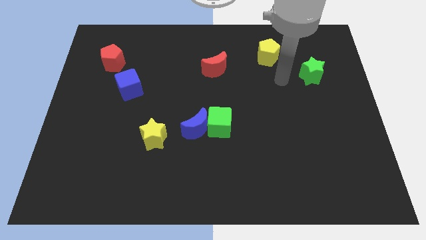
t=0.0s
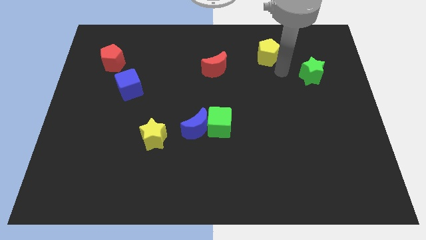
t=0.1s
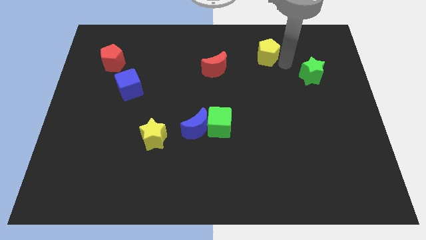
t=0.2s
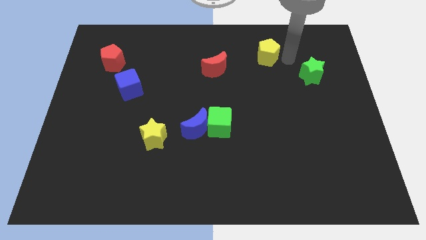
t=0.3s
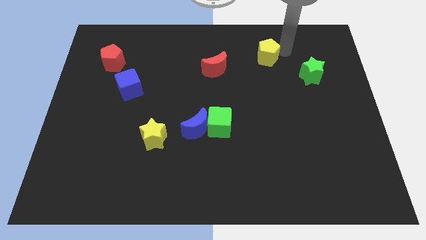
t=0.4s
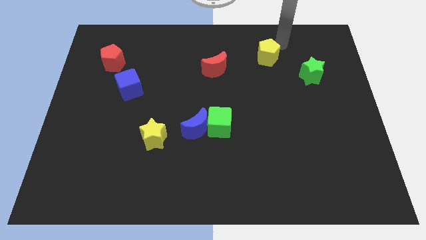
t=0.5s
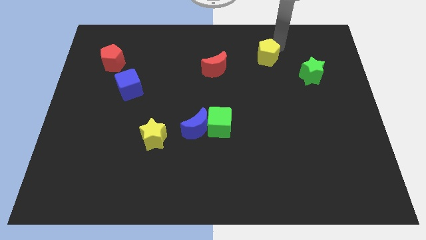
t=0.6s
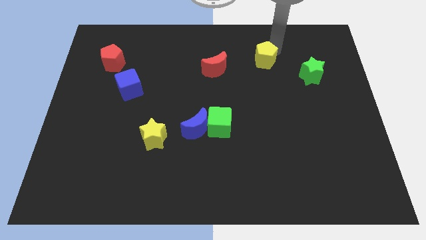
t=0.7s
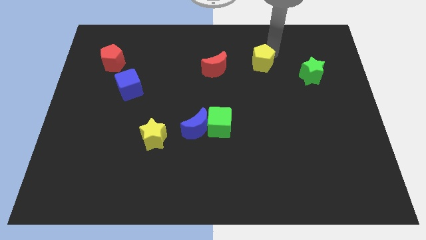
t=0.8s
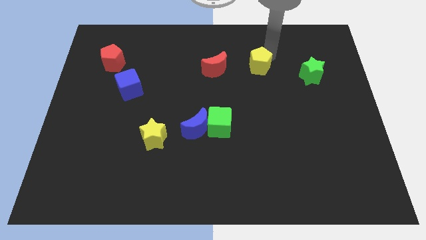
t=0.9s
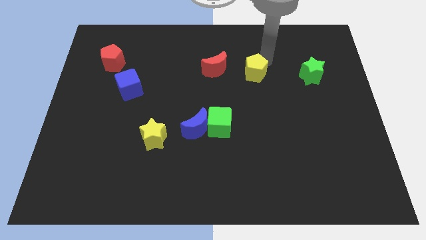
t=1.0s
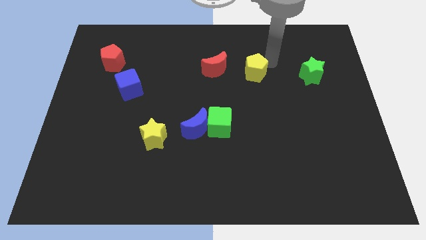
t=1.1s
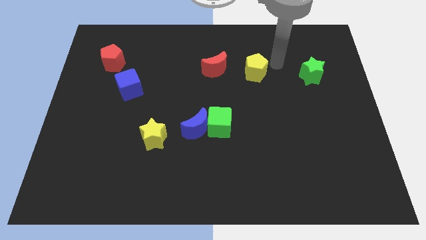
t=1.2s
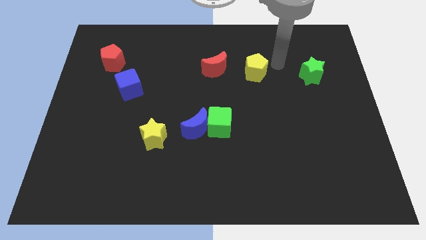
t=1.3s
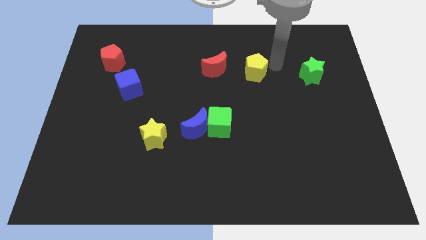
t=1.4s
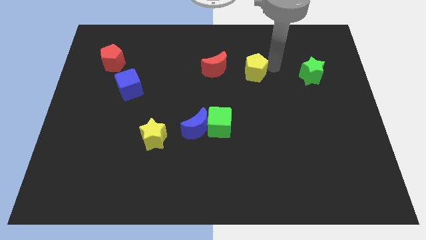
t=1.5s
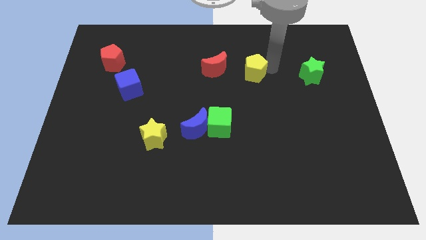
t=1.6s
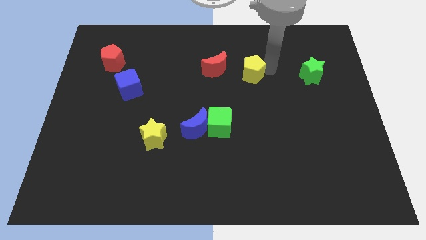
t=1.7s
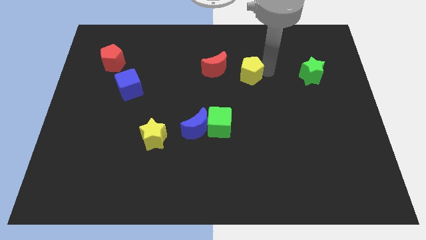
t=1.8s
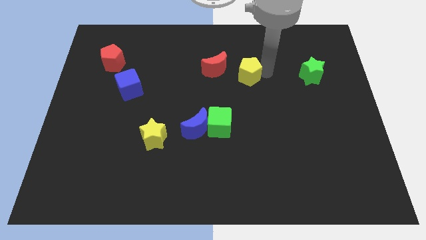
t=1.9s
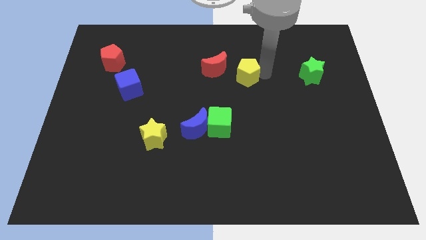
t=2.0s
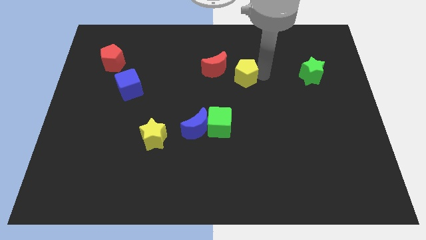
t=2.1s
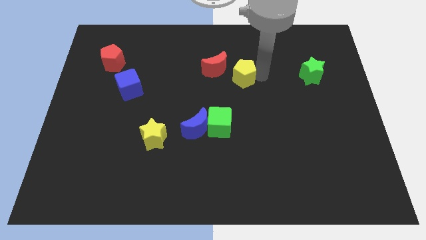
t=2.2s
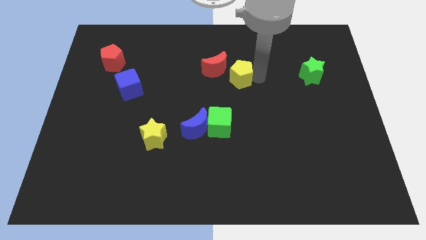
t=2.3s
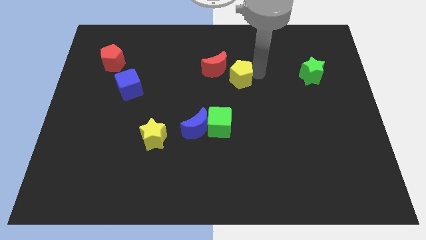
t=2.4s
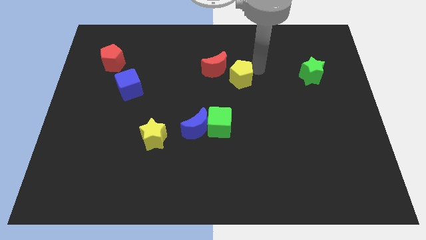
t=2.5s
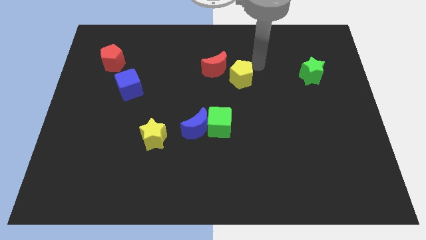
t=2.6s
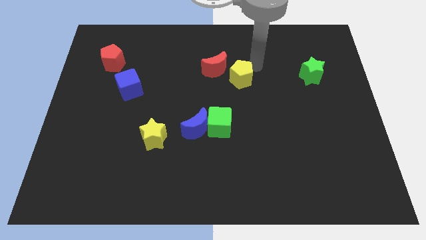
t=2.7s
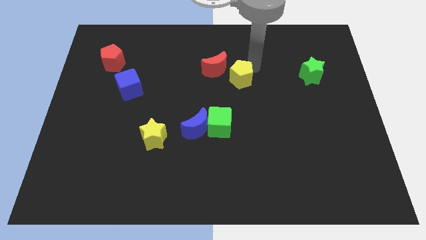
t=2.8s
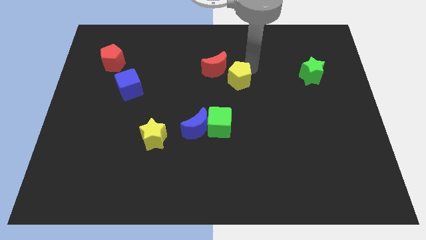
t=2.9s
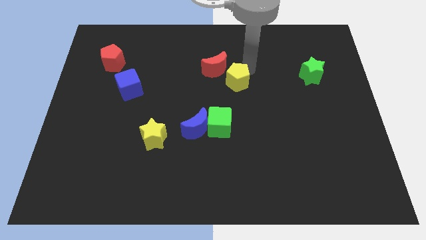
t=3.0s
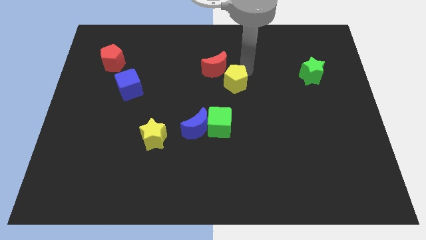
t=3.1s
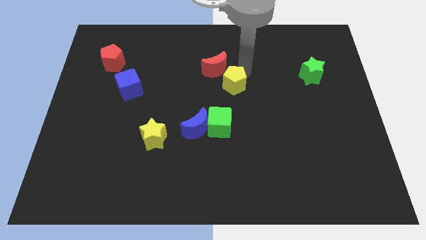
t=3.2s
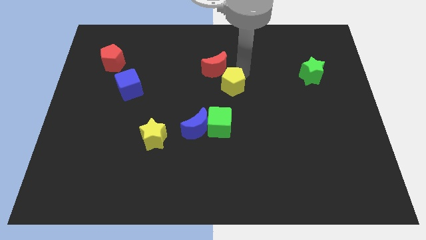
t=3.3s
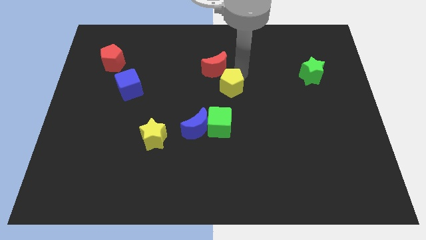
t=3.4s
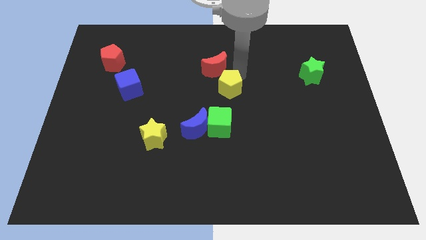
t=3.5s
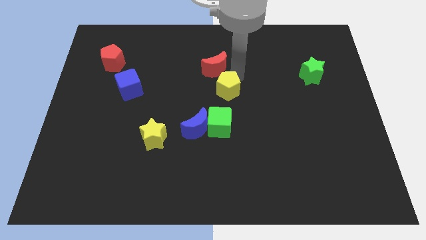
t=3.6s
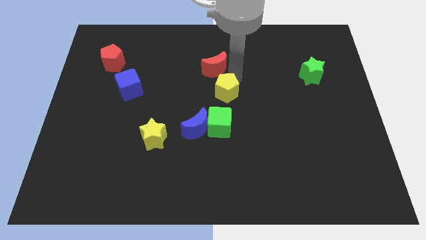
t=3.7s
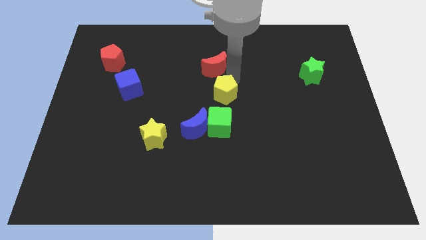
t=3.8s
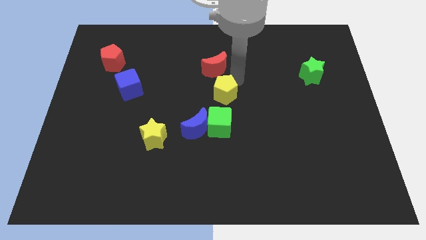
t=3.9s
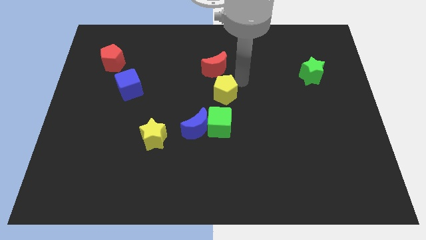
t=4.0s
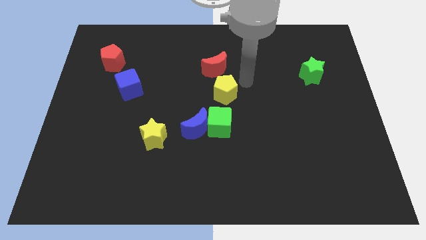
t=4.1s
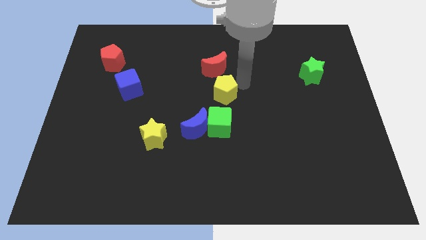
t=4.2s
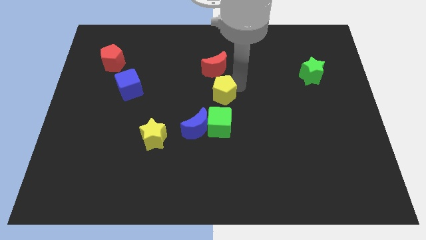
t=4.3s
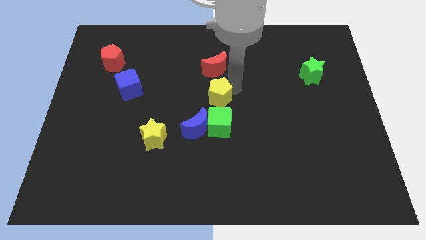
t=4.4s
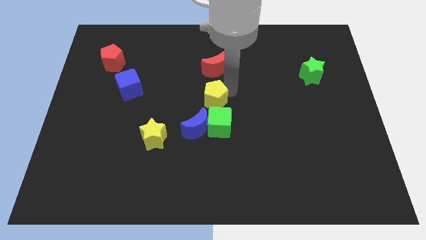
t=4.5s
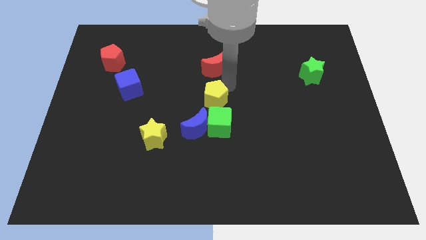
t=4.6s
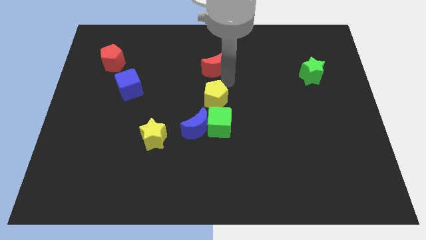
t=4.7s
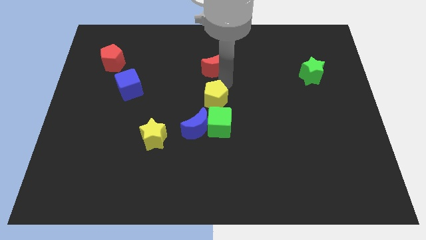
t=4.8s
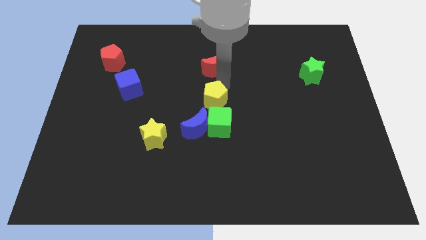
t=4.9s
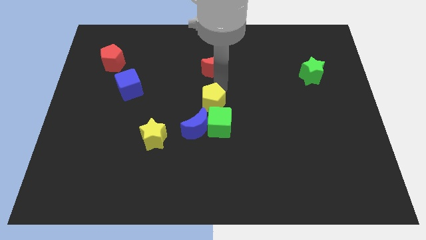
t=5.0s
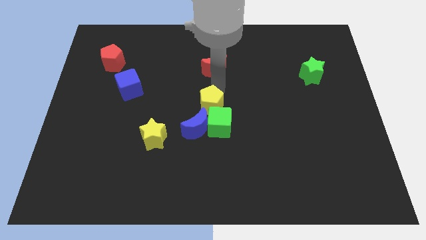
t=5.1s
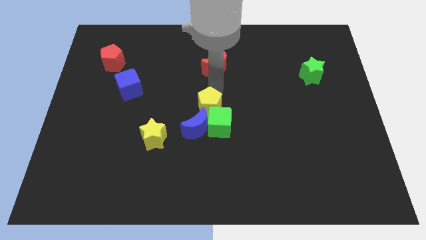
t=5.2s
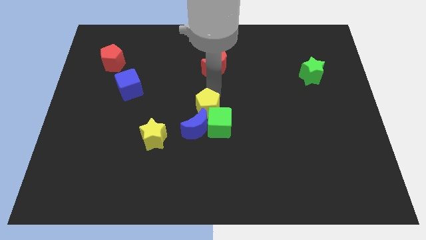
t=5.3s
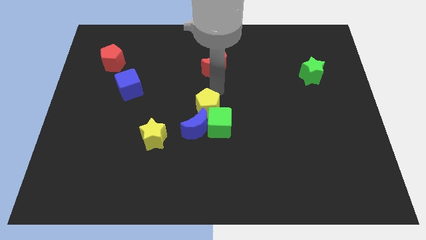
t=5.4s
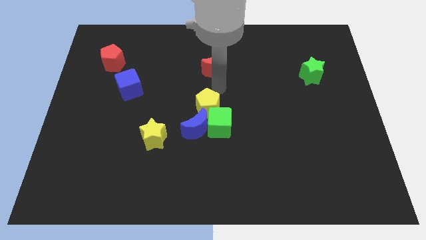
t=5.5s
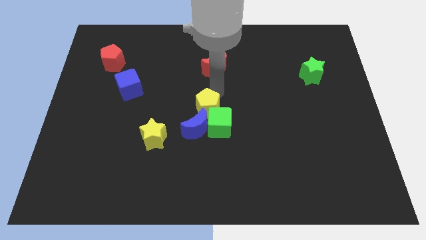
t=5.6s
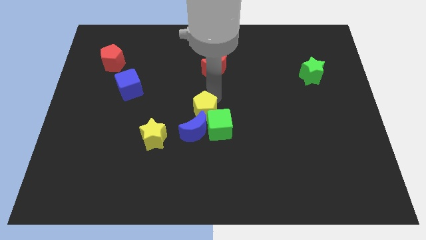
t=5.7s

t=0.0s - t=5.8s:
move the yellow pentagon towards the blue moon

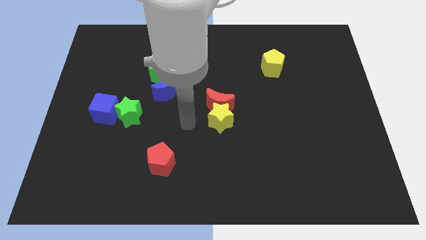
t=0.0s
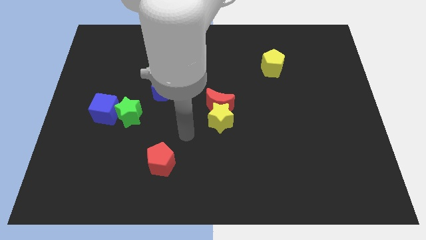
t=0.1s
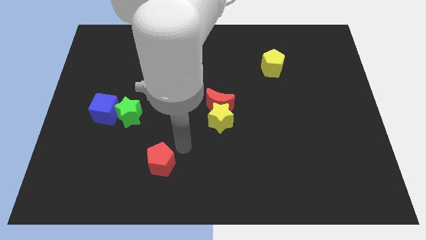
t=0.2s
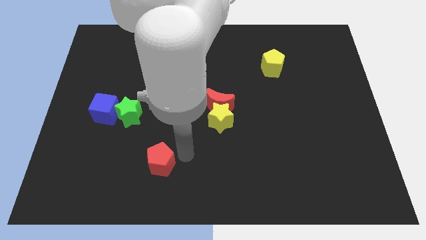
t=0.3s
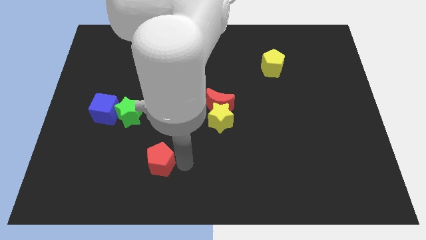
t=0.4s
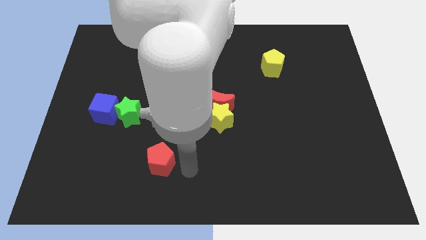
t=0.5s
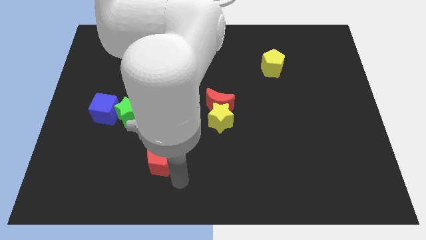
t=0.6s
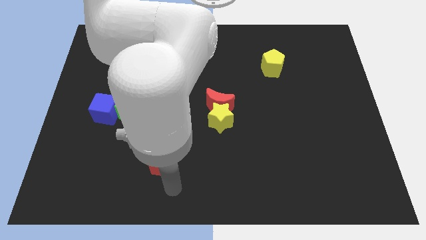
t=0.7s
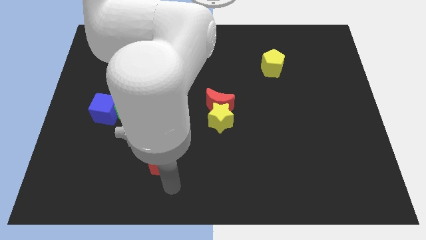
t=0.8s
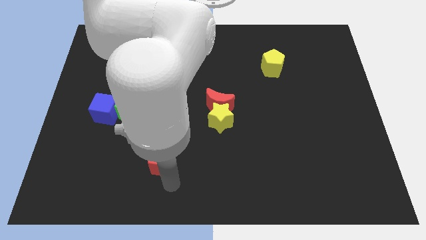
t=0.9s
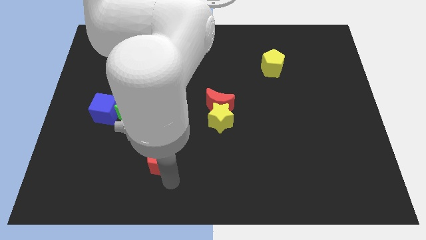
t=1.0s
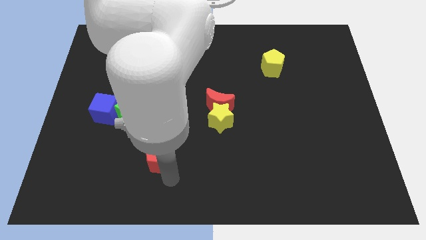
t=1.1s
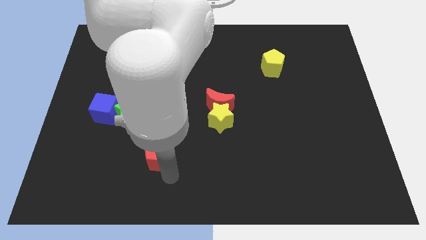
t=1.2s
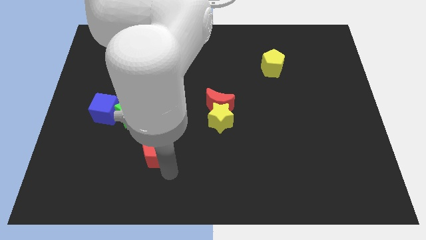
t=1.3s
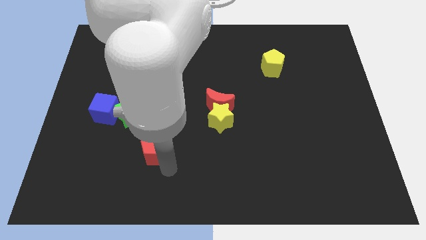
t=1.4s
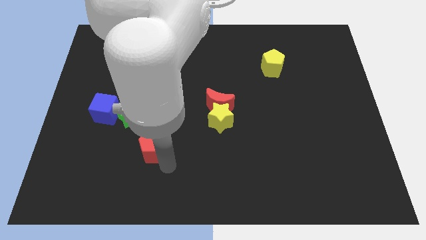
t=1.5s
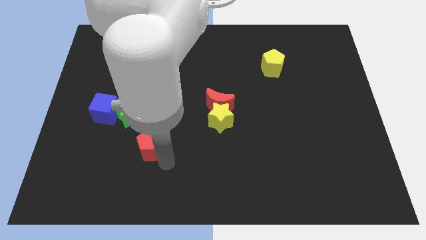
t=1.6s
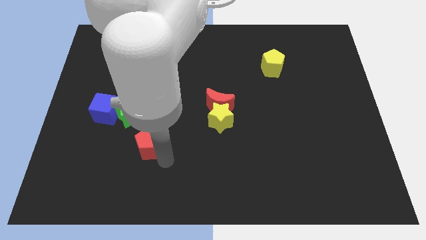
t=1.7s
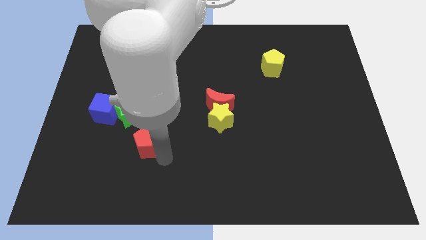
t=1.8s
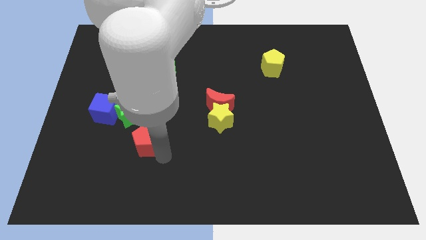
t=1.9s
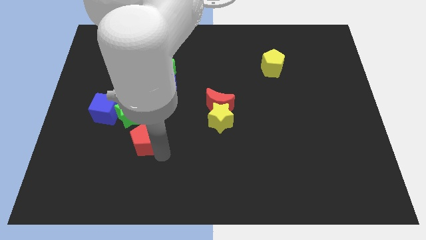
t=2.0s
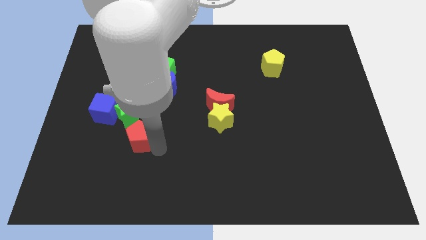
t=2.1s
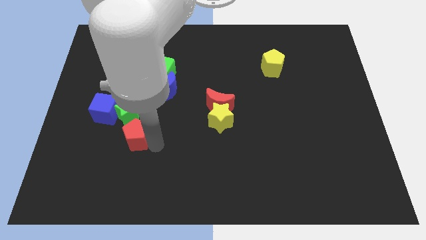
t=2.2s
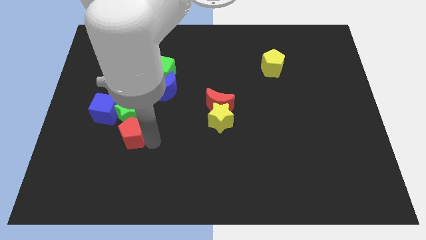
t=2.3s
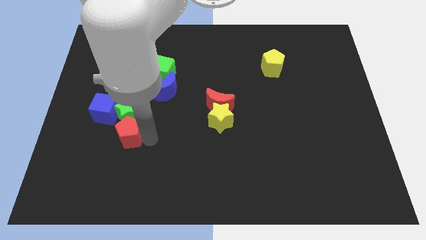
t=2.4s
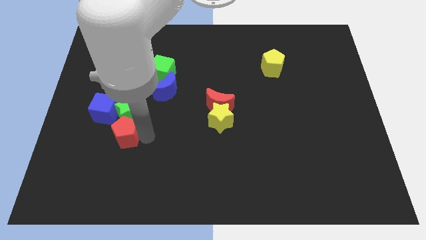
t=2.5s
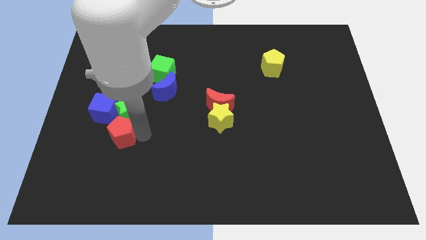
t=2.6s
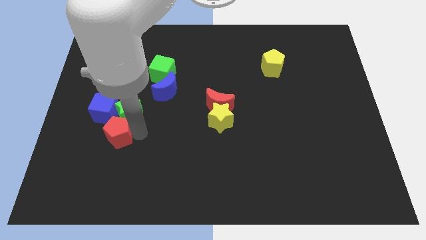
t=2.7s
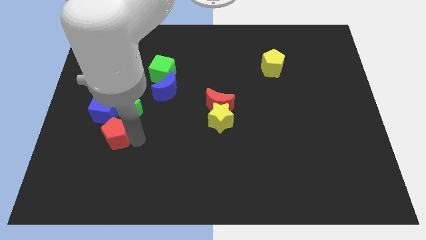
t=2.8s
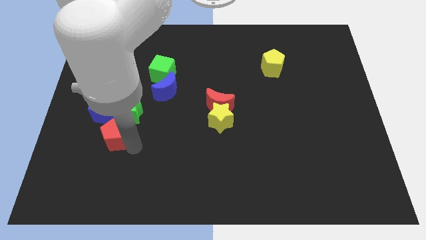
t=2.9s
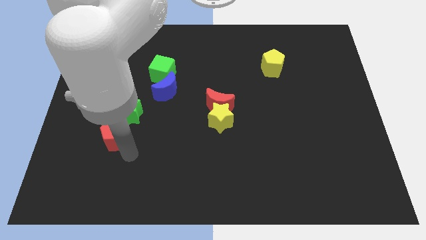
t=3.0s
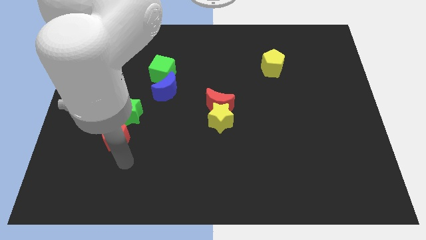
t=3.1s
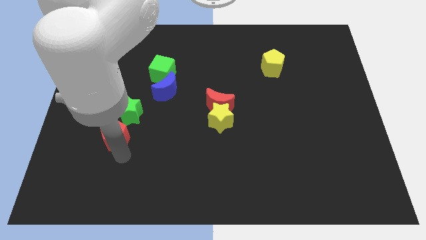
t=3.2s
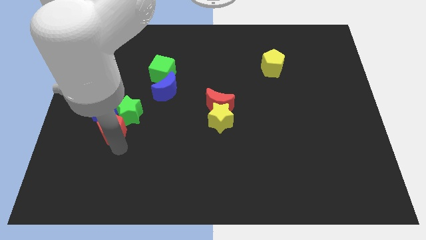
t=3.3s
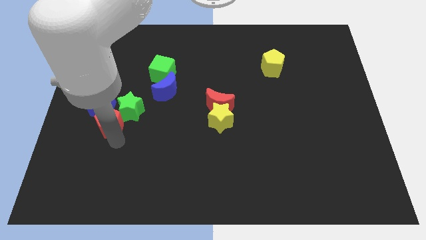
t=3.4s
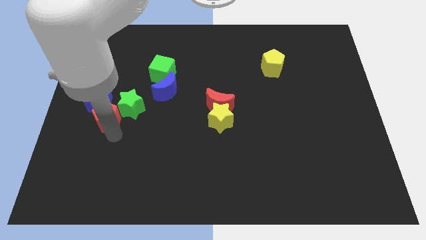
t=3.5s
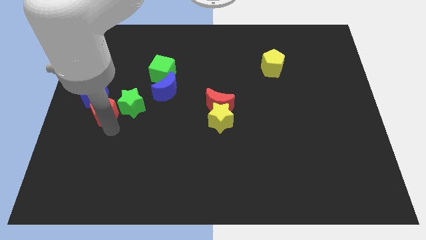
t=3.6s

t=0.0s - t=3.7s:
push the red pentagon to the blue cube
